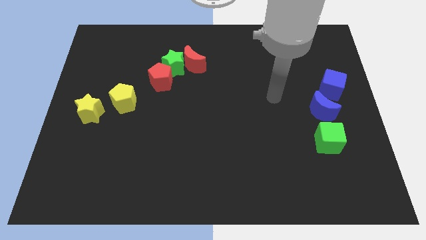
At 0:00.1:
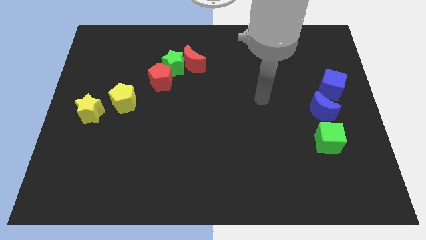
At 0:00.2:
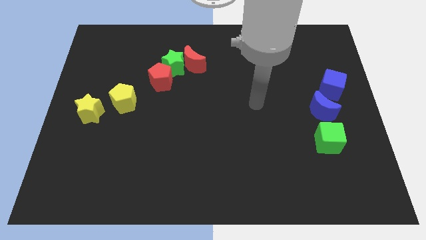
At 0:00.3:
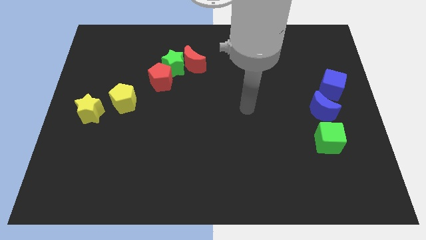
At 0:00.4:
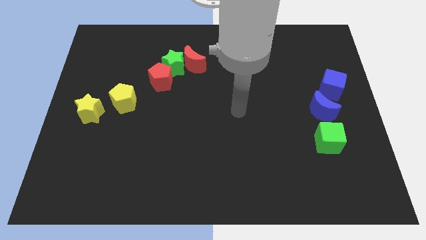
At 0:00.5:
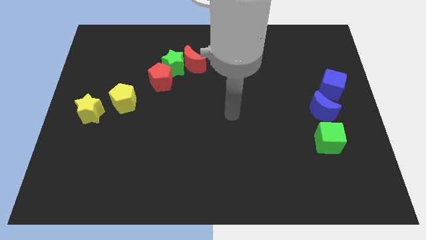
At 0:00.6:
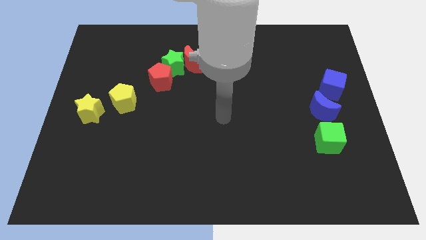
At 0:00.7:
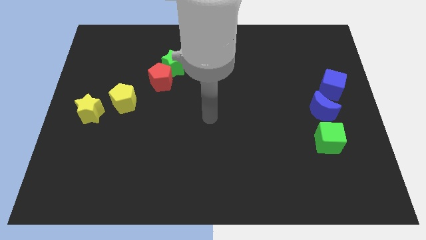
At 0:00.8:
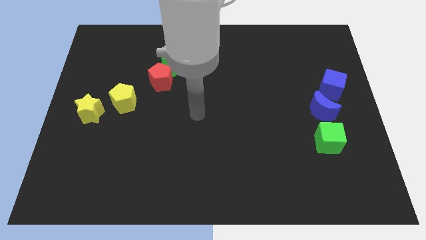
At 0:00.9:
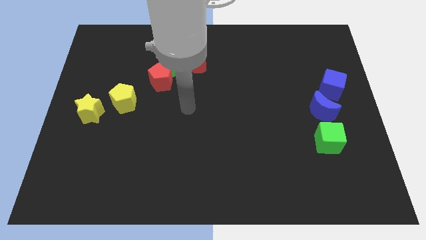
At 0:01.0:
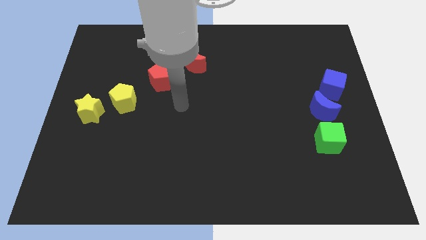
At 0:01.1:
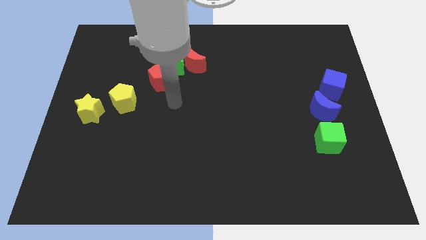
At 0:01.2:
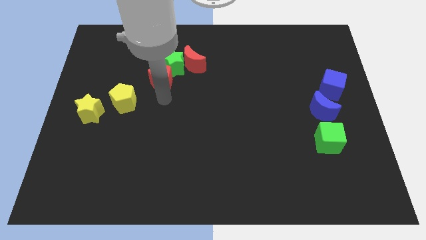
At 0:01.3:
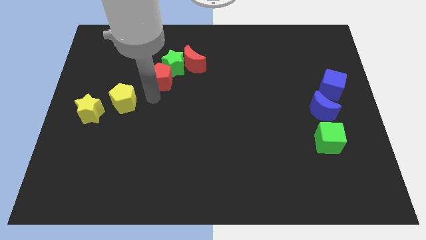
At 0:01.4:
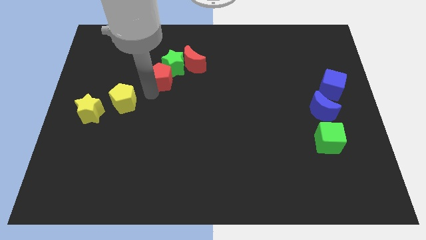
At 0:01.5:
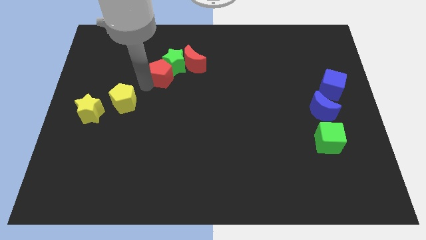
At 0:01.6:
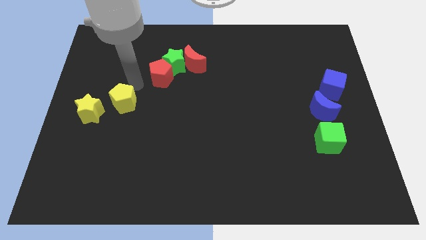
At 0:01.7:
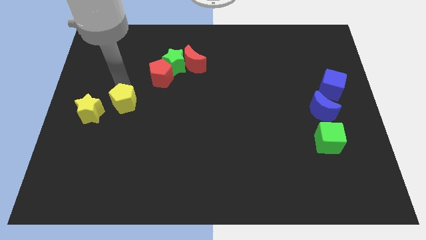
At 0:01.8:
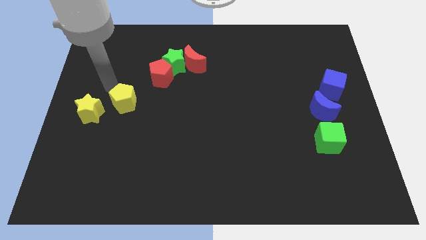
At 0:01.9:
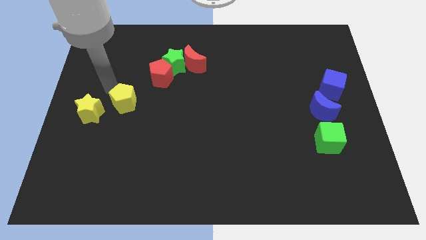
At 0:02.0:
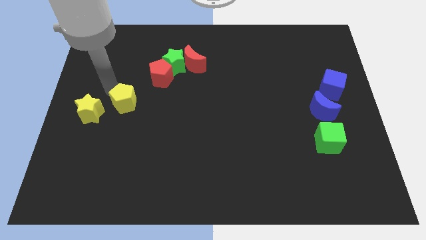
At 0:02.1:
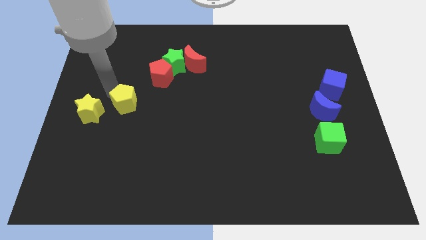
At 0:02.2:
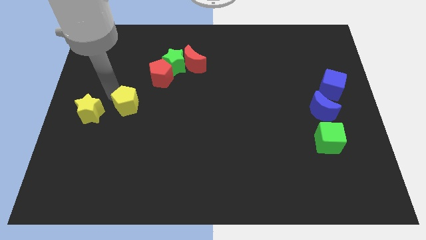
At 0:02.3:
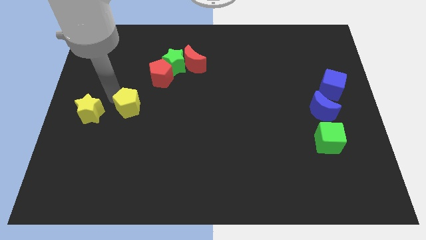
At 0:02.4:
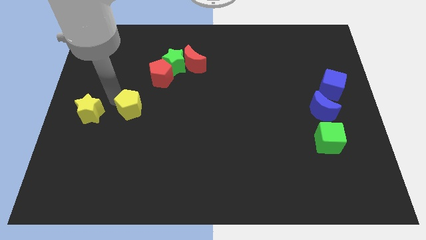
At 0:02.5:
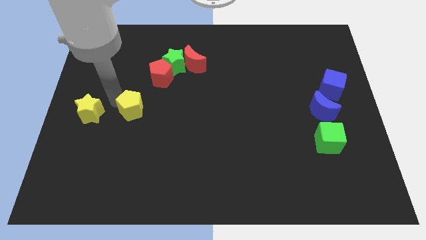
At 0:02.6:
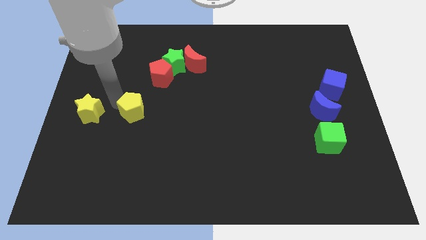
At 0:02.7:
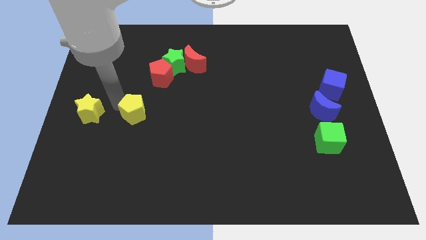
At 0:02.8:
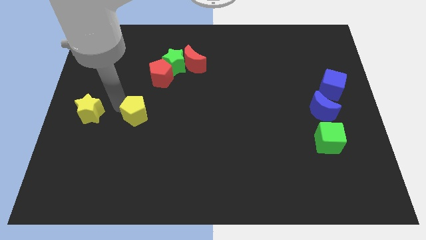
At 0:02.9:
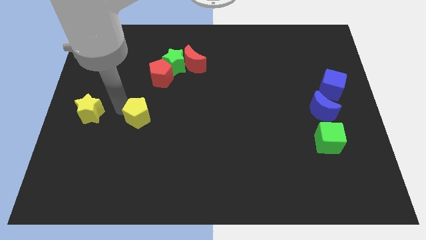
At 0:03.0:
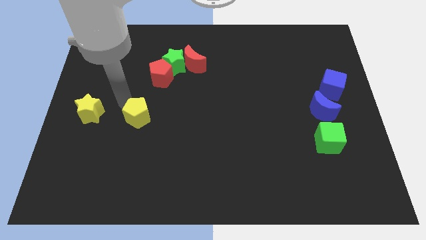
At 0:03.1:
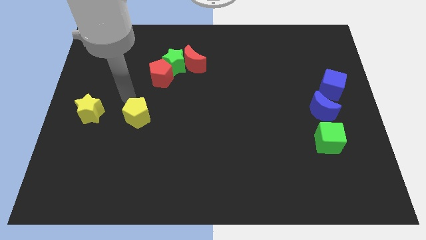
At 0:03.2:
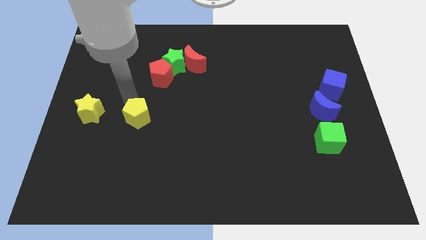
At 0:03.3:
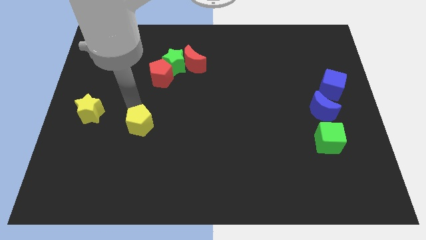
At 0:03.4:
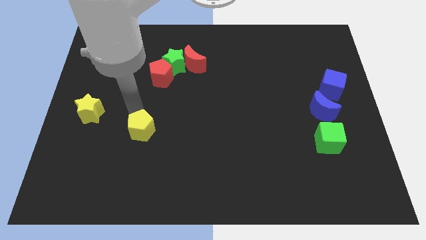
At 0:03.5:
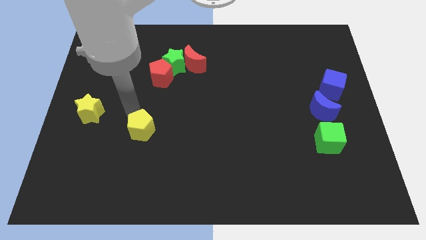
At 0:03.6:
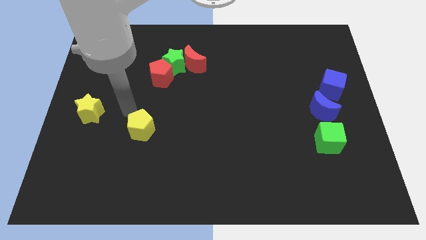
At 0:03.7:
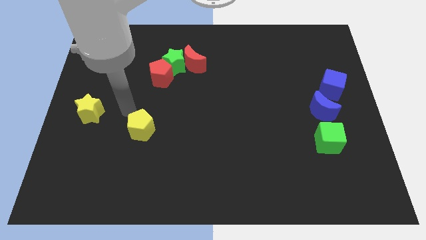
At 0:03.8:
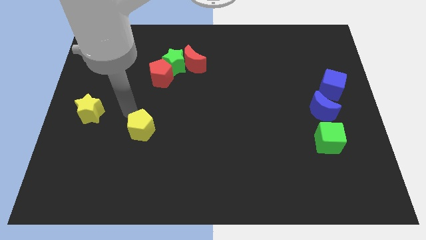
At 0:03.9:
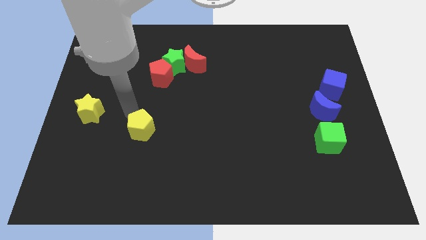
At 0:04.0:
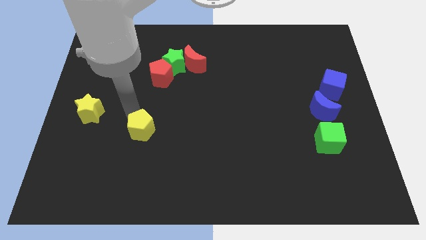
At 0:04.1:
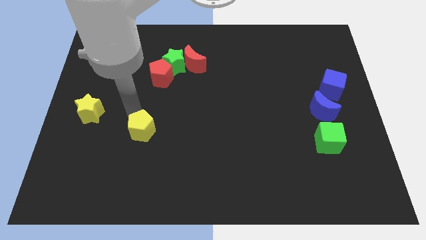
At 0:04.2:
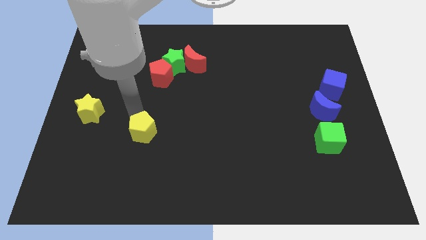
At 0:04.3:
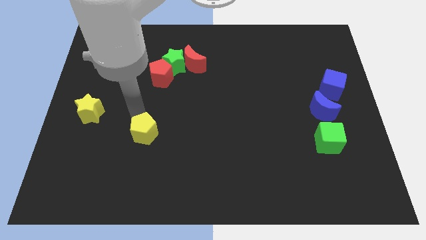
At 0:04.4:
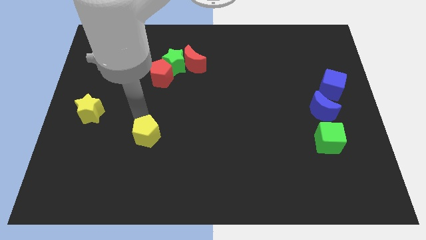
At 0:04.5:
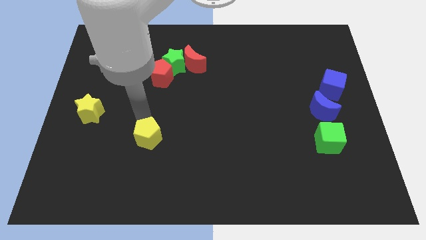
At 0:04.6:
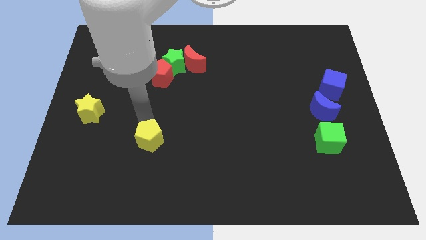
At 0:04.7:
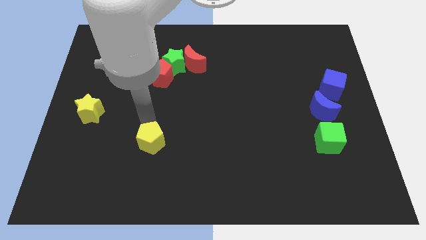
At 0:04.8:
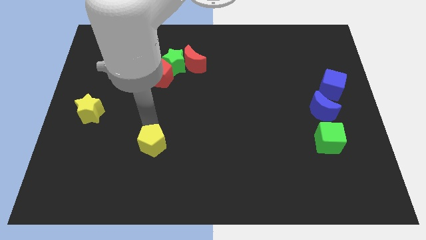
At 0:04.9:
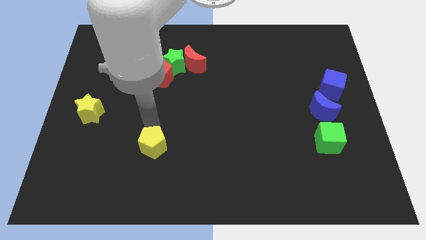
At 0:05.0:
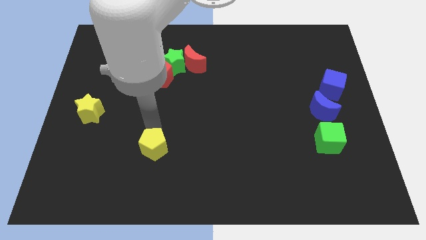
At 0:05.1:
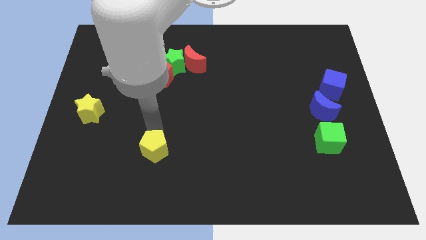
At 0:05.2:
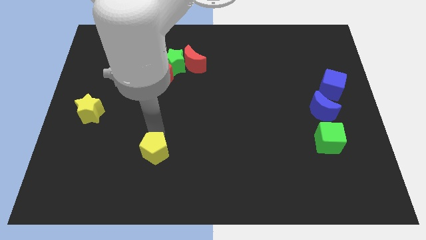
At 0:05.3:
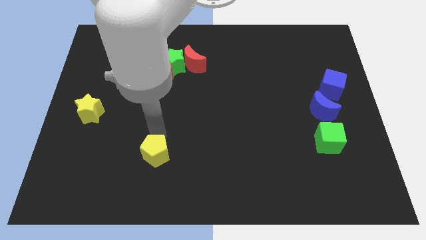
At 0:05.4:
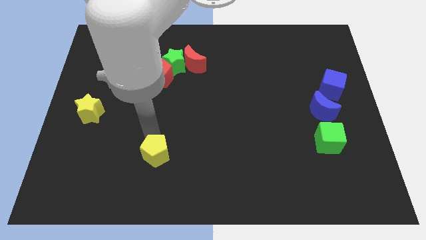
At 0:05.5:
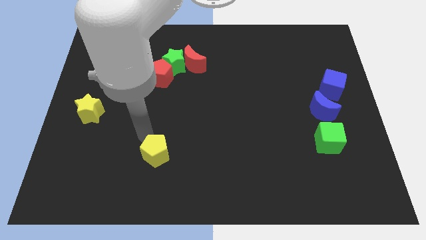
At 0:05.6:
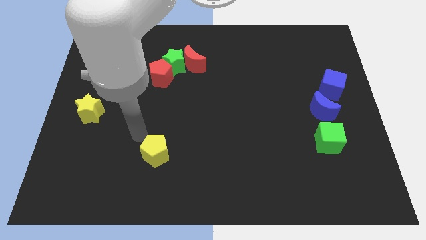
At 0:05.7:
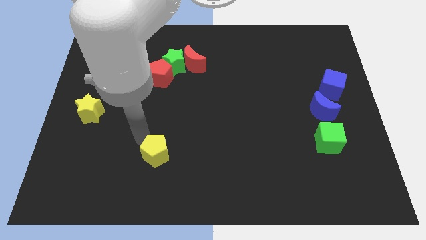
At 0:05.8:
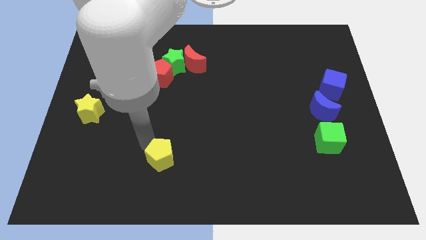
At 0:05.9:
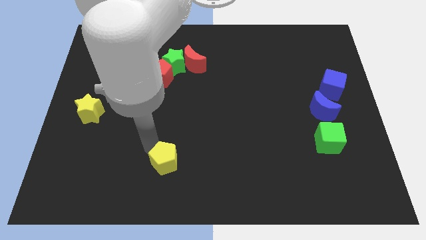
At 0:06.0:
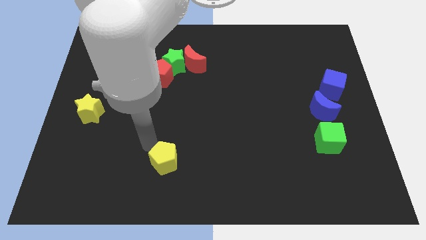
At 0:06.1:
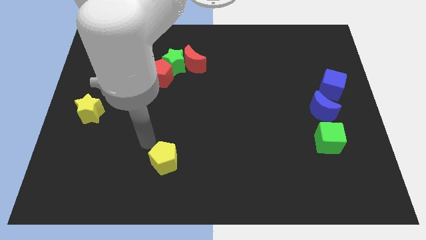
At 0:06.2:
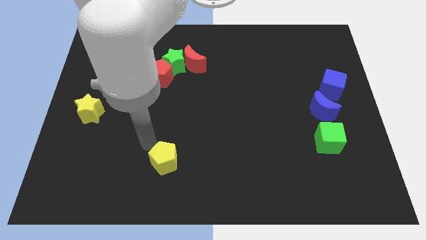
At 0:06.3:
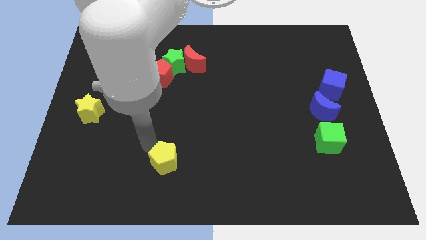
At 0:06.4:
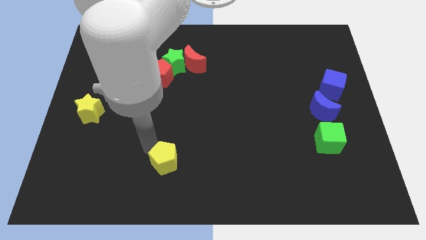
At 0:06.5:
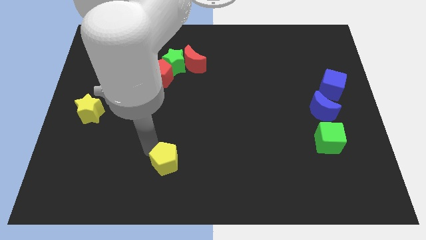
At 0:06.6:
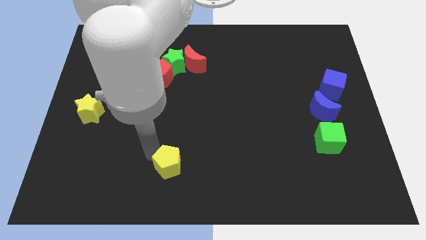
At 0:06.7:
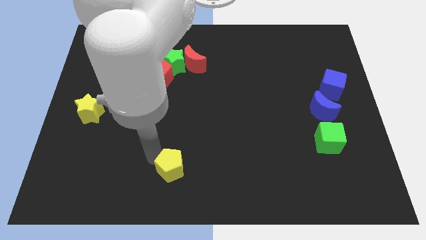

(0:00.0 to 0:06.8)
push the yellow pentagon to the bottom
